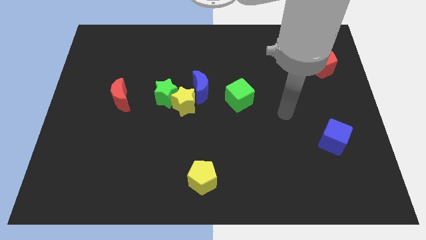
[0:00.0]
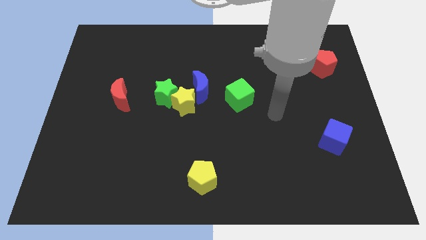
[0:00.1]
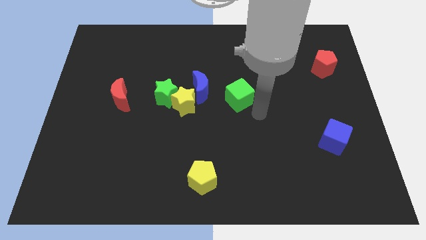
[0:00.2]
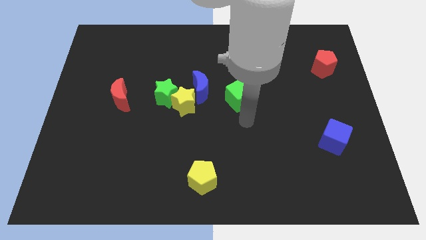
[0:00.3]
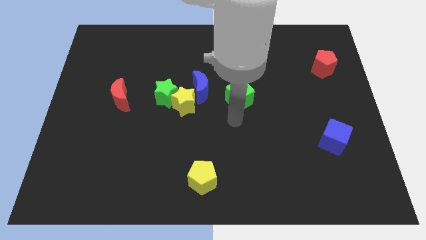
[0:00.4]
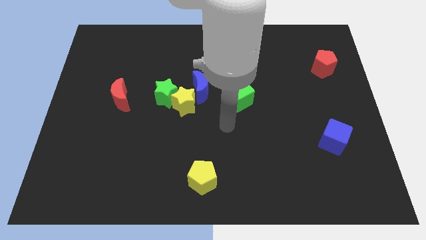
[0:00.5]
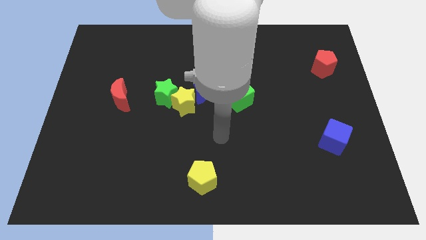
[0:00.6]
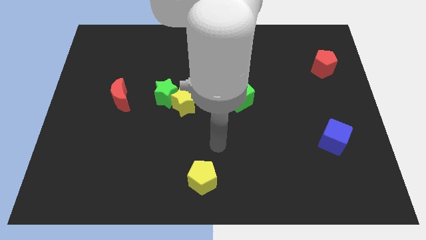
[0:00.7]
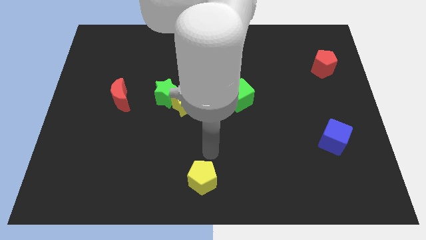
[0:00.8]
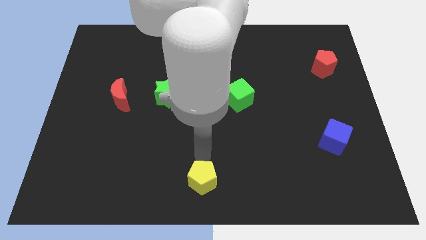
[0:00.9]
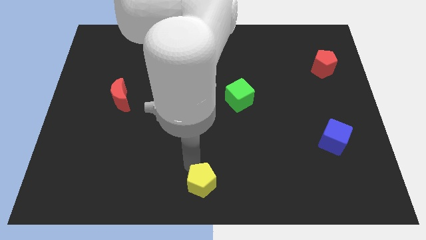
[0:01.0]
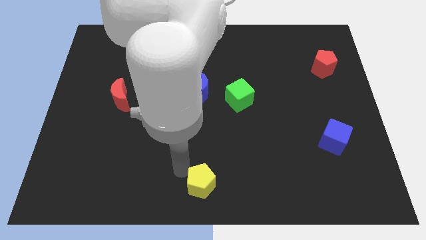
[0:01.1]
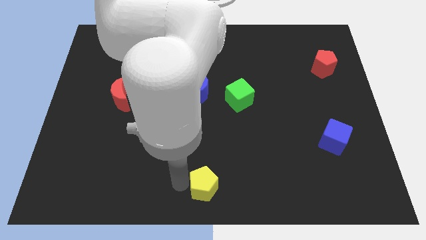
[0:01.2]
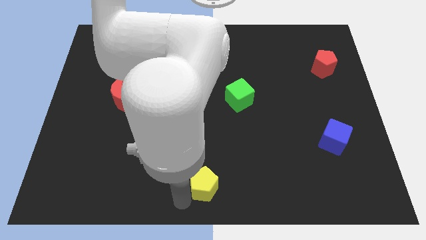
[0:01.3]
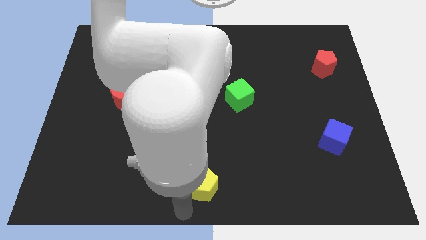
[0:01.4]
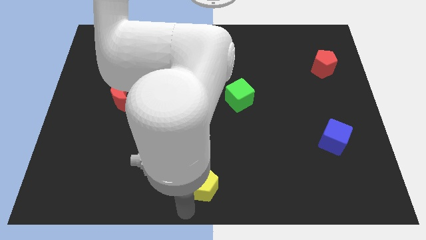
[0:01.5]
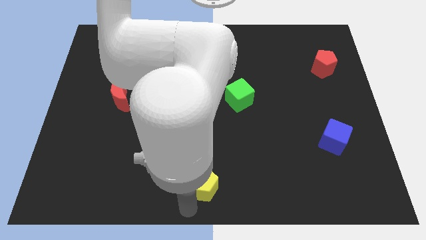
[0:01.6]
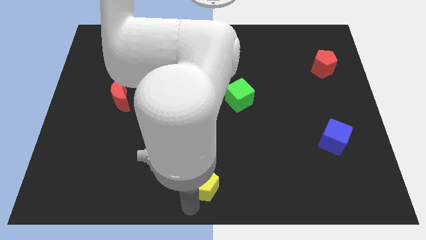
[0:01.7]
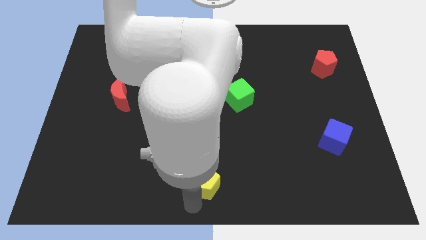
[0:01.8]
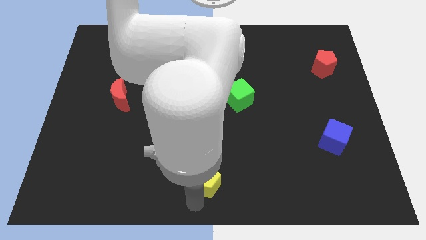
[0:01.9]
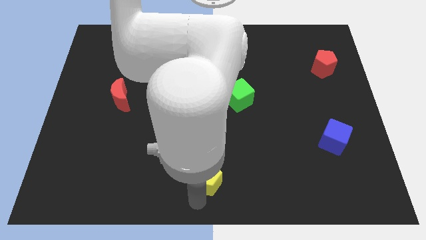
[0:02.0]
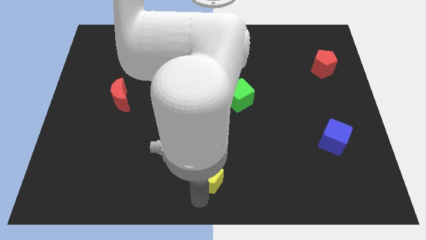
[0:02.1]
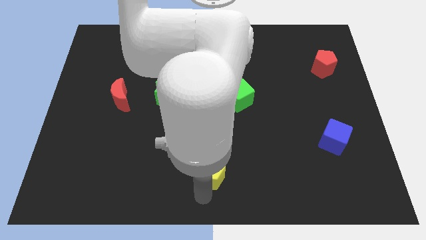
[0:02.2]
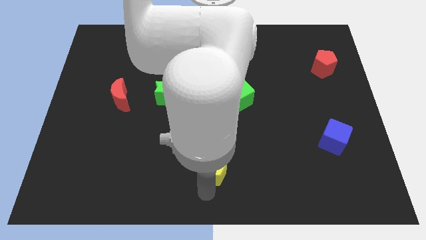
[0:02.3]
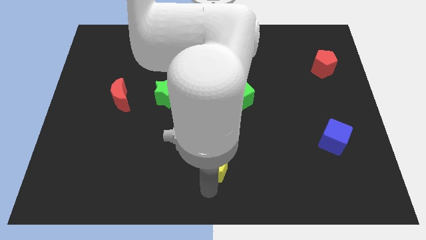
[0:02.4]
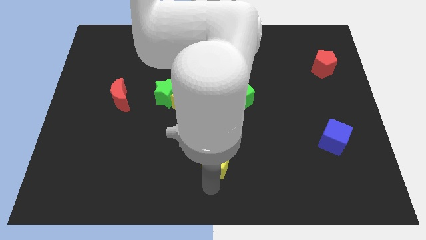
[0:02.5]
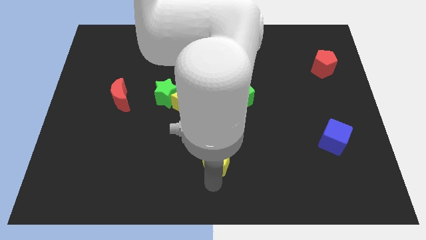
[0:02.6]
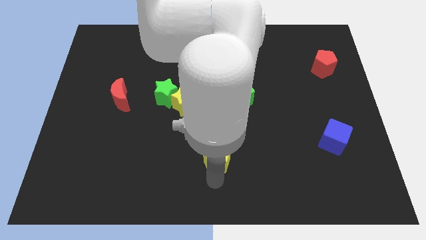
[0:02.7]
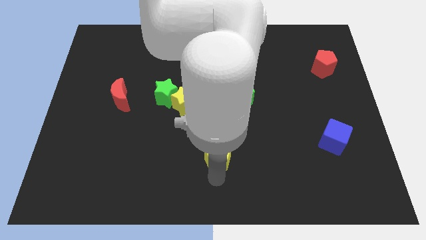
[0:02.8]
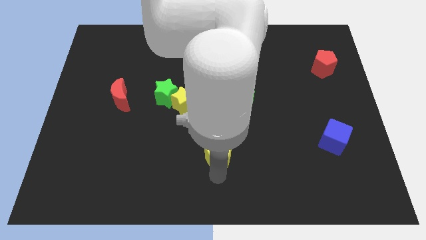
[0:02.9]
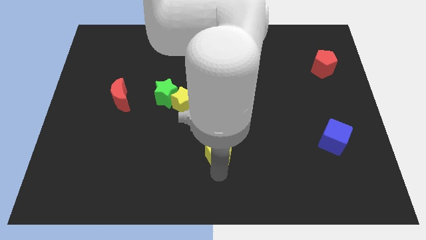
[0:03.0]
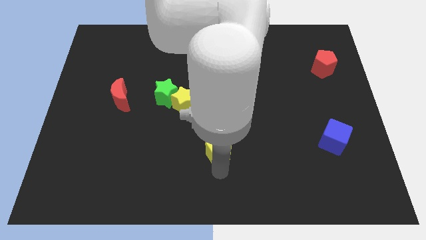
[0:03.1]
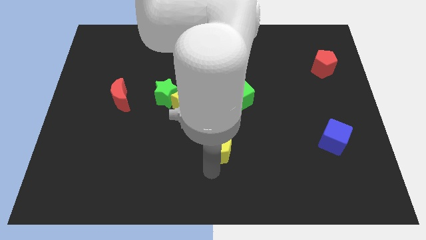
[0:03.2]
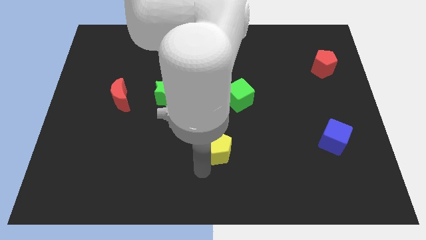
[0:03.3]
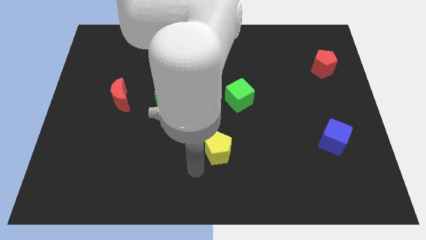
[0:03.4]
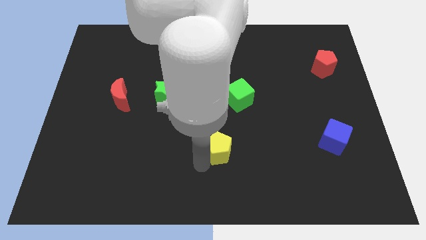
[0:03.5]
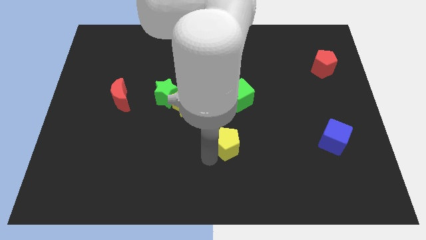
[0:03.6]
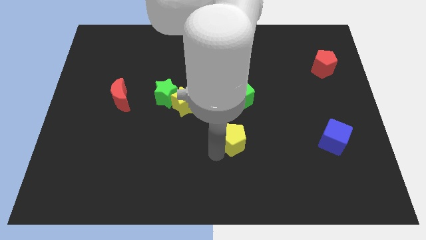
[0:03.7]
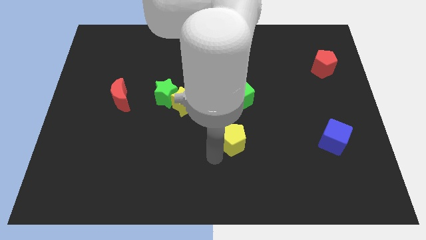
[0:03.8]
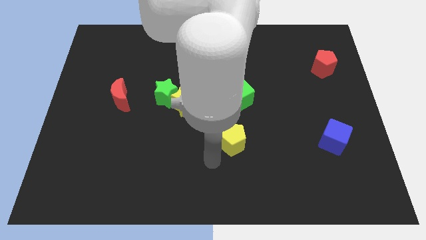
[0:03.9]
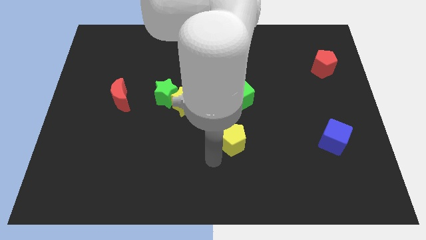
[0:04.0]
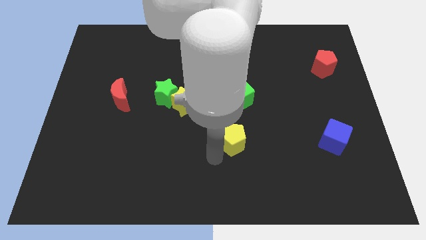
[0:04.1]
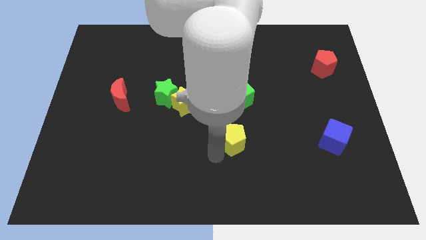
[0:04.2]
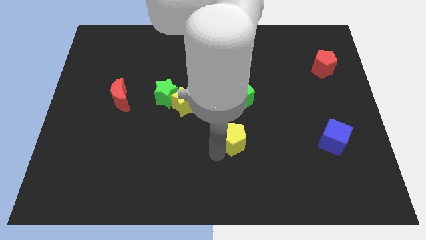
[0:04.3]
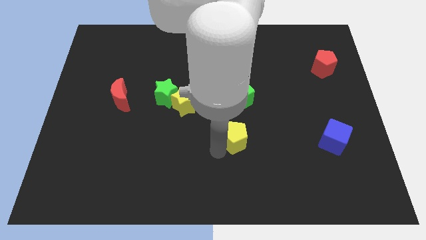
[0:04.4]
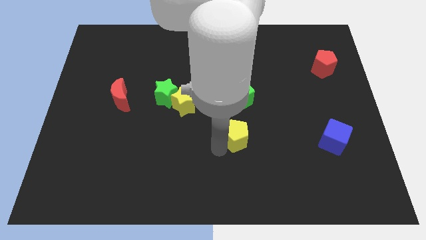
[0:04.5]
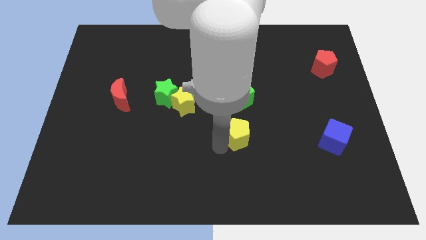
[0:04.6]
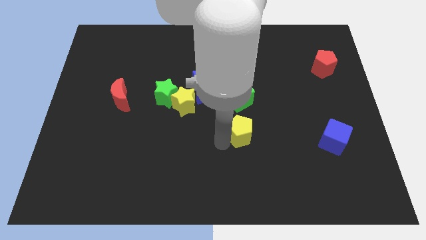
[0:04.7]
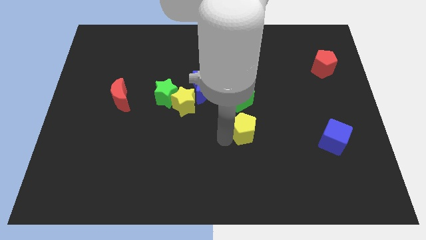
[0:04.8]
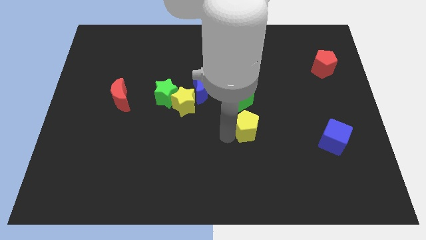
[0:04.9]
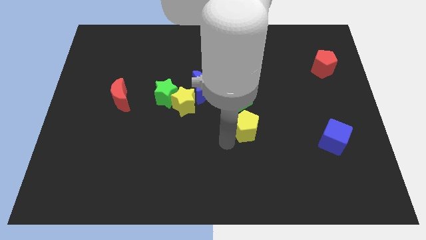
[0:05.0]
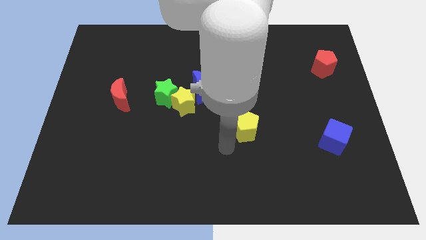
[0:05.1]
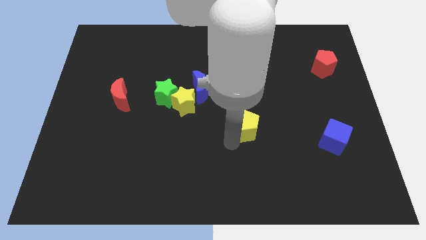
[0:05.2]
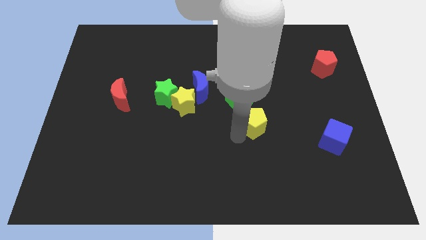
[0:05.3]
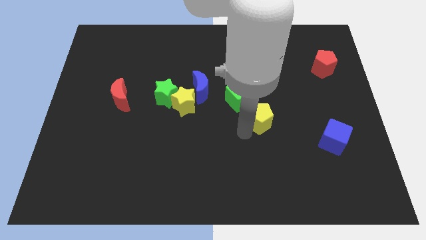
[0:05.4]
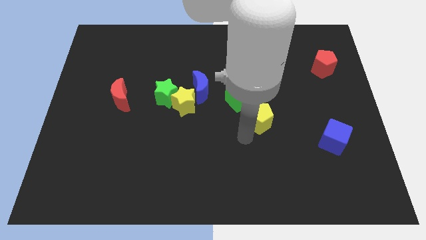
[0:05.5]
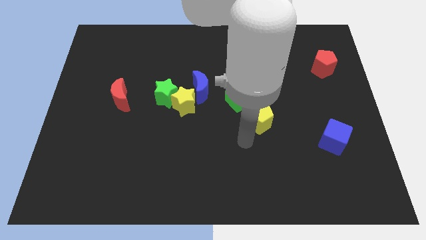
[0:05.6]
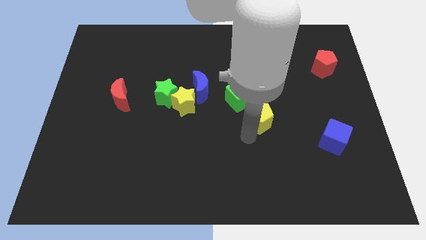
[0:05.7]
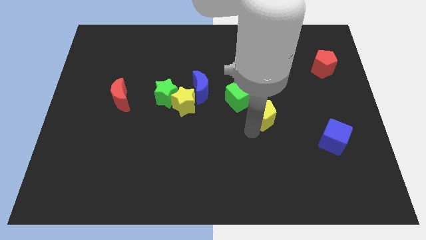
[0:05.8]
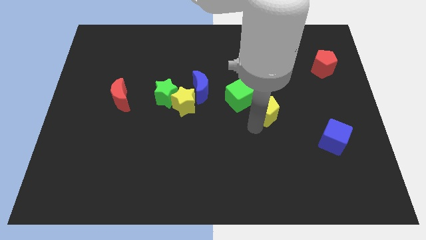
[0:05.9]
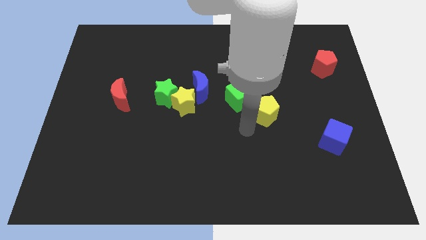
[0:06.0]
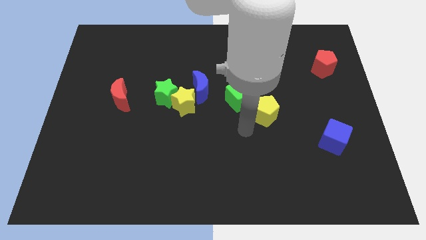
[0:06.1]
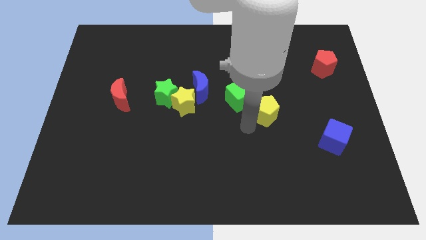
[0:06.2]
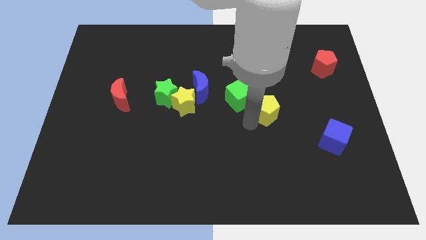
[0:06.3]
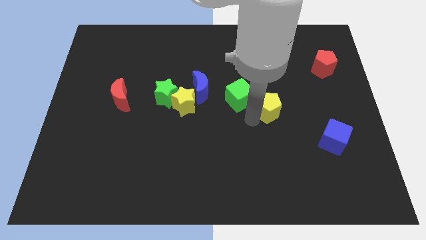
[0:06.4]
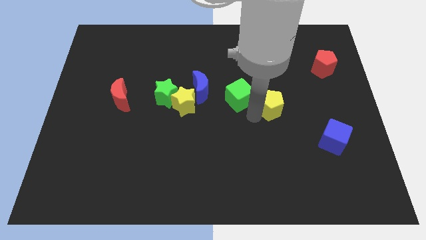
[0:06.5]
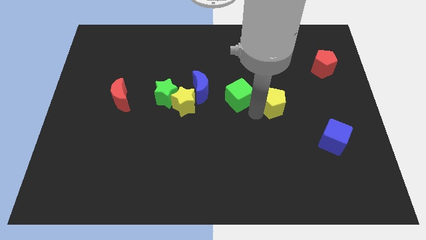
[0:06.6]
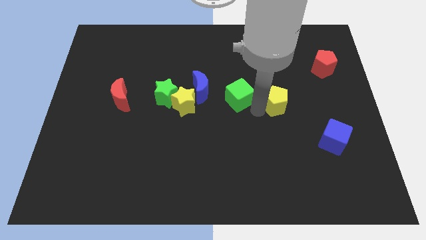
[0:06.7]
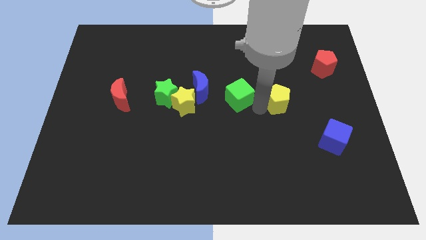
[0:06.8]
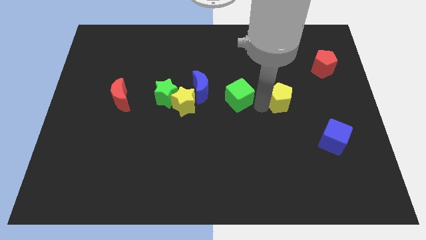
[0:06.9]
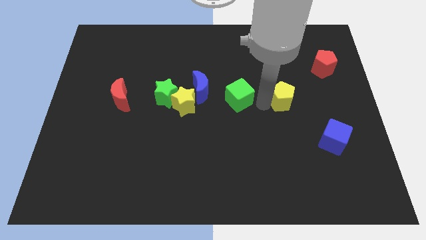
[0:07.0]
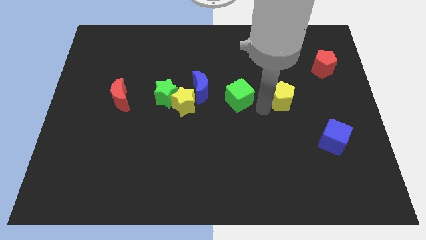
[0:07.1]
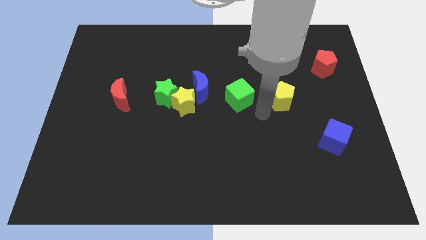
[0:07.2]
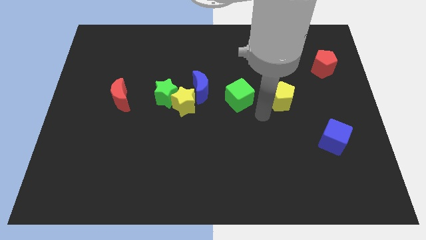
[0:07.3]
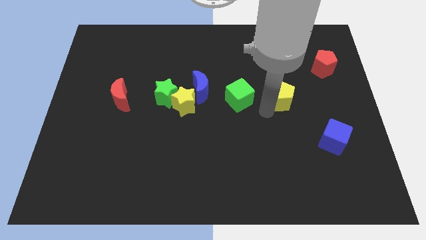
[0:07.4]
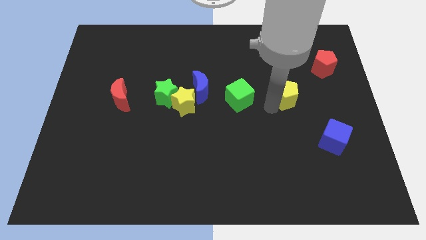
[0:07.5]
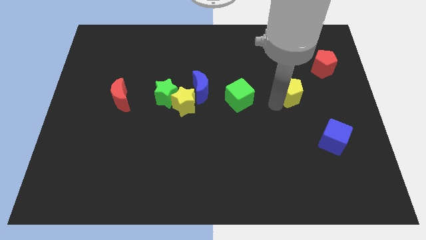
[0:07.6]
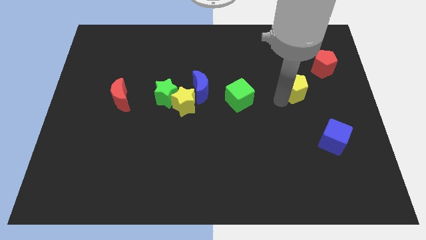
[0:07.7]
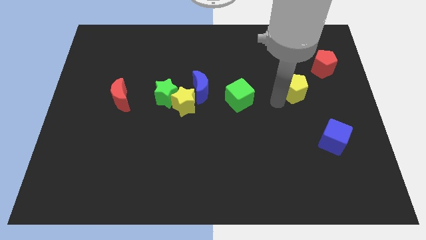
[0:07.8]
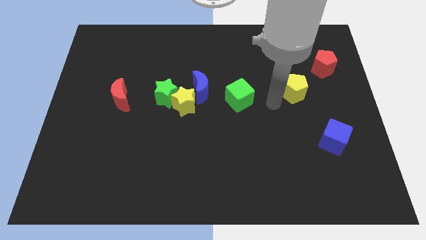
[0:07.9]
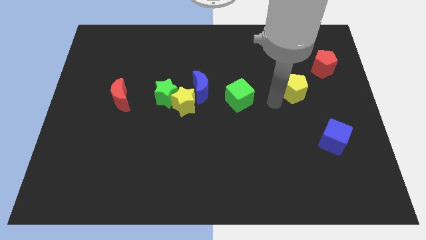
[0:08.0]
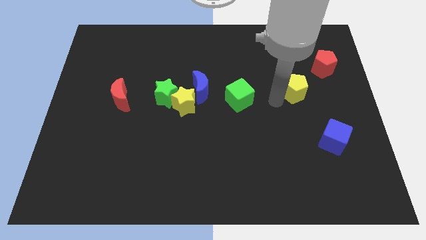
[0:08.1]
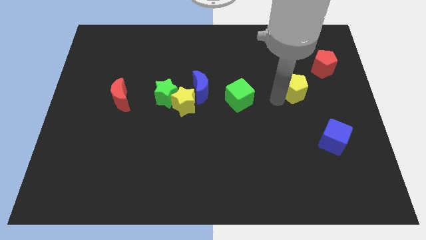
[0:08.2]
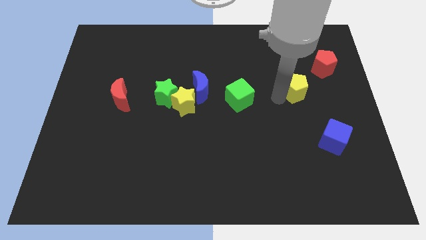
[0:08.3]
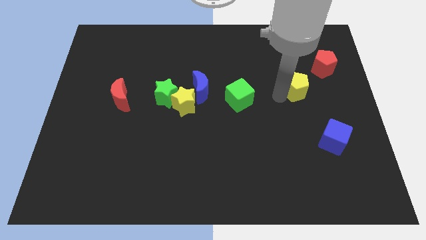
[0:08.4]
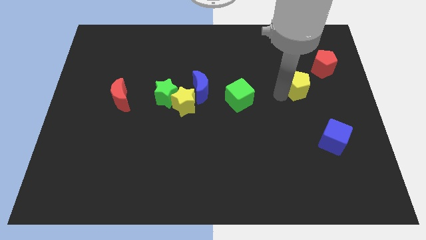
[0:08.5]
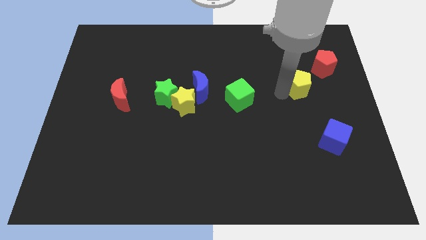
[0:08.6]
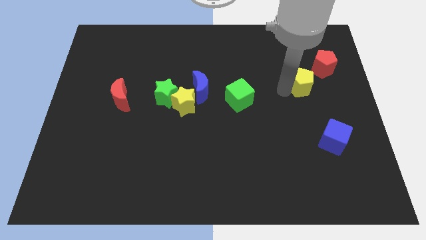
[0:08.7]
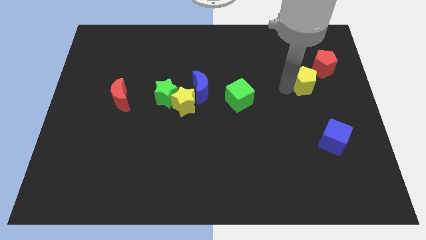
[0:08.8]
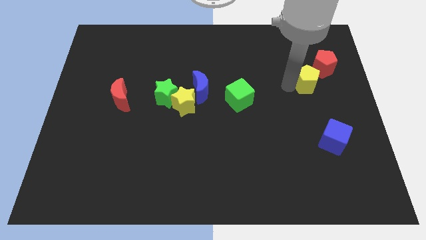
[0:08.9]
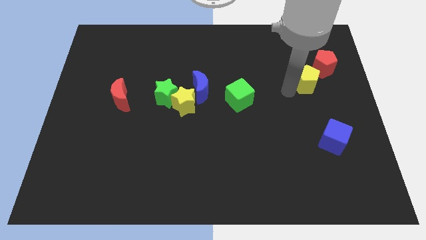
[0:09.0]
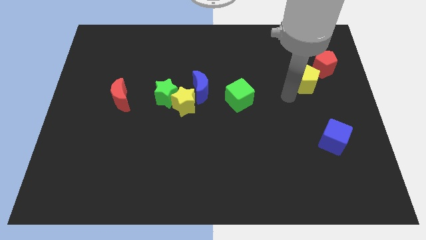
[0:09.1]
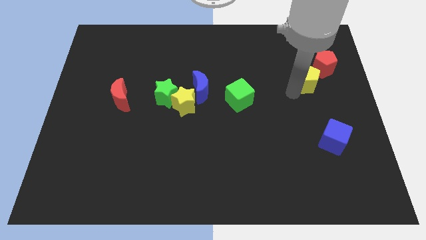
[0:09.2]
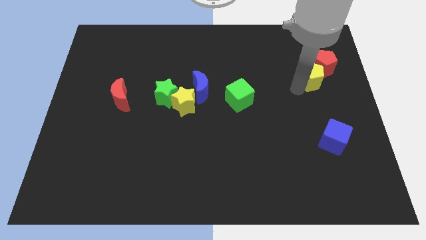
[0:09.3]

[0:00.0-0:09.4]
move the yellow pentagon to the red pentagon
